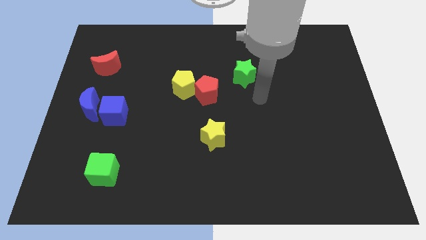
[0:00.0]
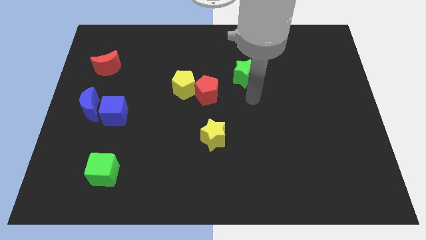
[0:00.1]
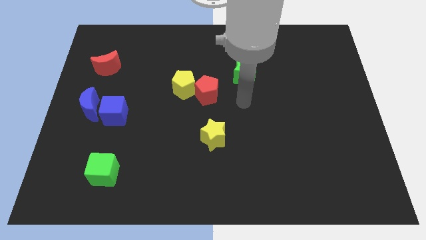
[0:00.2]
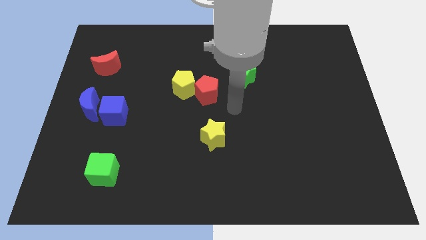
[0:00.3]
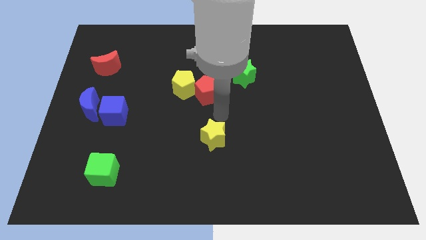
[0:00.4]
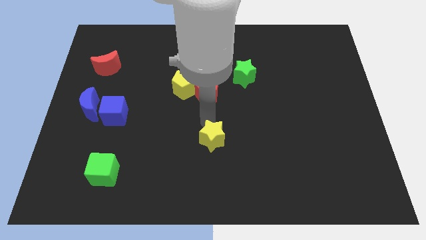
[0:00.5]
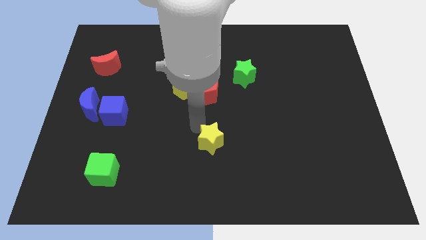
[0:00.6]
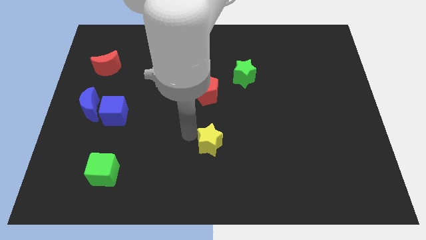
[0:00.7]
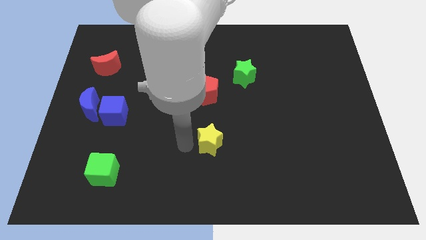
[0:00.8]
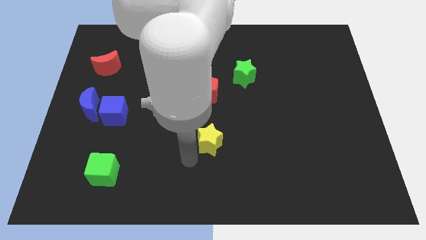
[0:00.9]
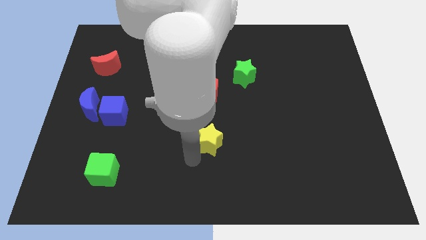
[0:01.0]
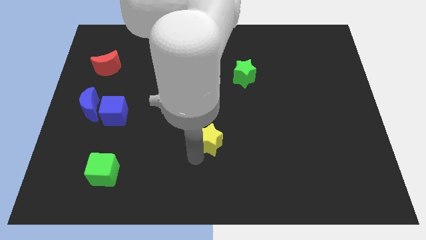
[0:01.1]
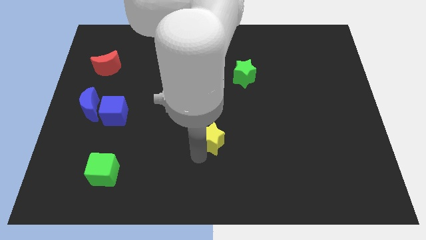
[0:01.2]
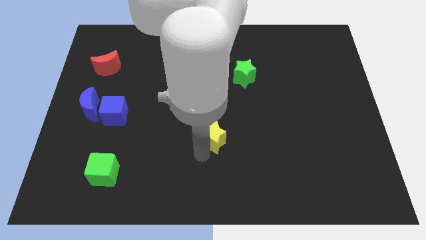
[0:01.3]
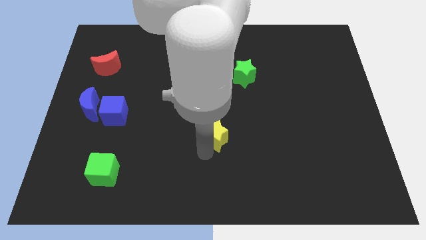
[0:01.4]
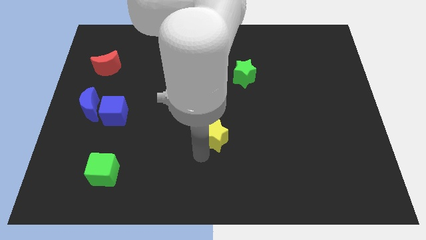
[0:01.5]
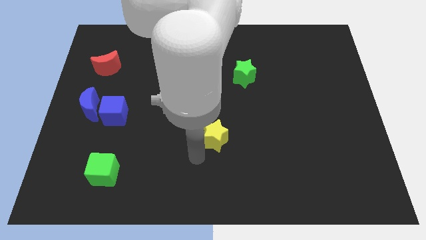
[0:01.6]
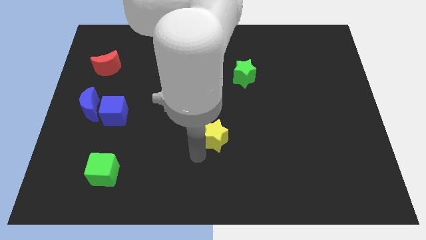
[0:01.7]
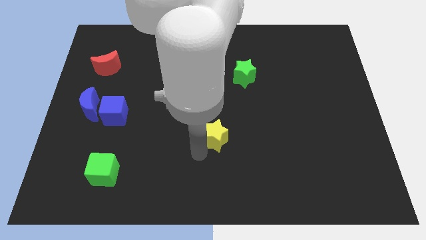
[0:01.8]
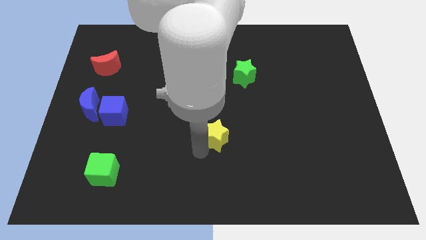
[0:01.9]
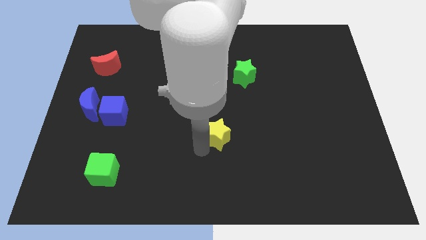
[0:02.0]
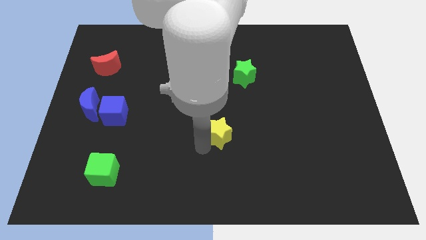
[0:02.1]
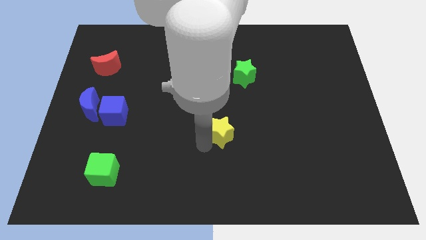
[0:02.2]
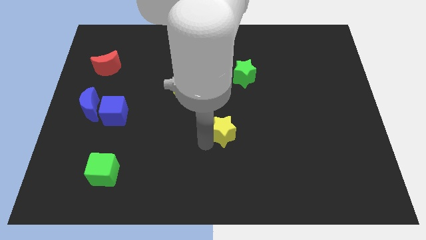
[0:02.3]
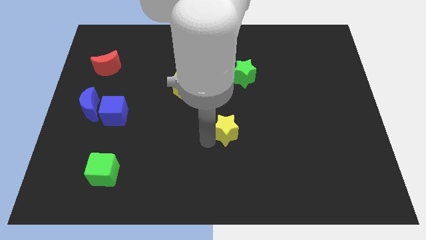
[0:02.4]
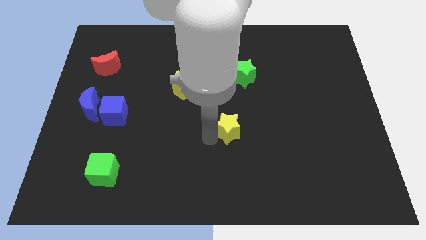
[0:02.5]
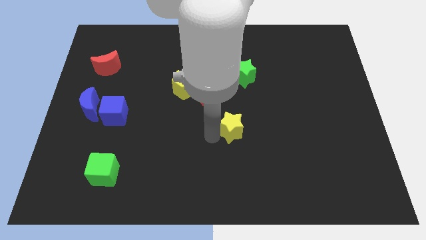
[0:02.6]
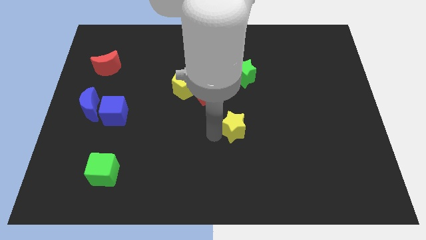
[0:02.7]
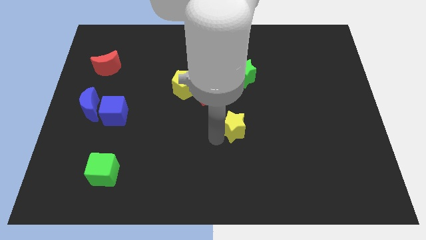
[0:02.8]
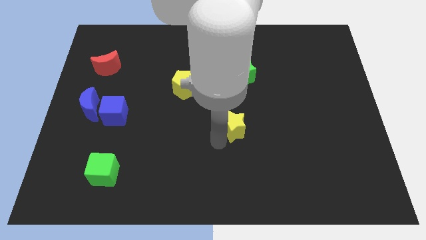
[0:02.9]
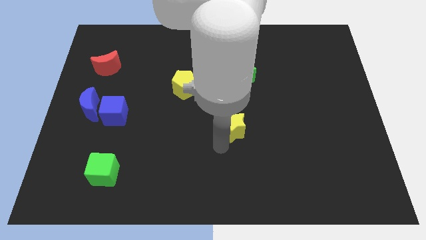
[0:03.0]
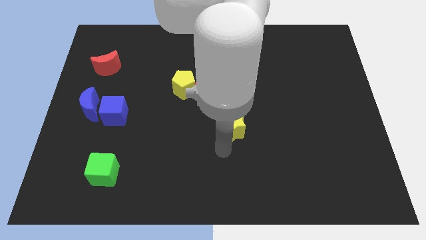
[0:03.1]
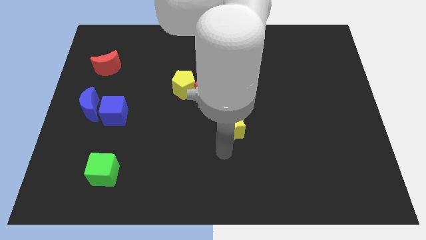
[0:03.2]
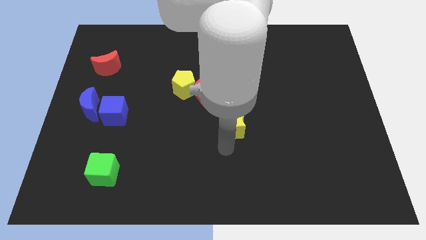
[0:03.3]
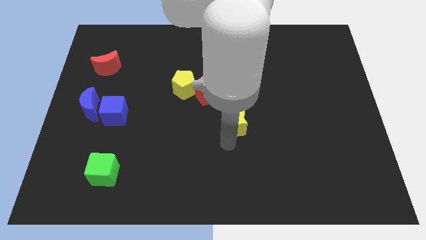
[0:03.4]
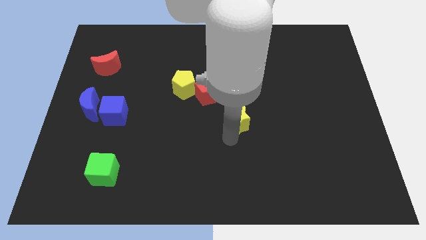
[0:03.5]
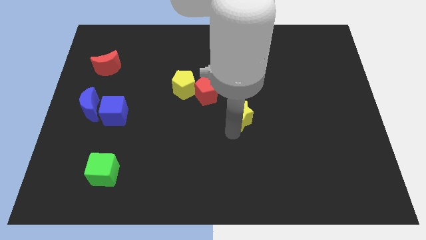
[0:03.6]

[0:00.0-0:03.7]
slightly push the yellow star upwards and then to the right

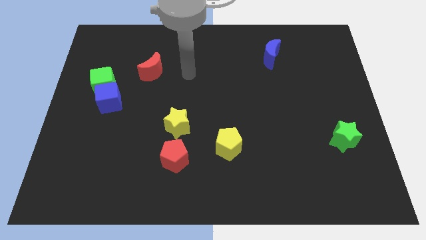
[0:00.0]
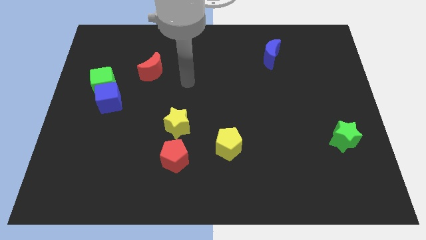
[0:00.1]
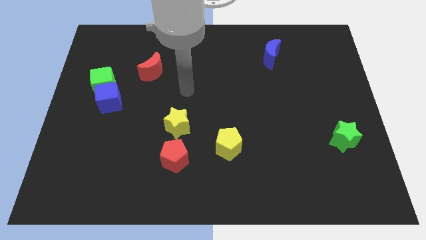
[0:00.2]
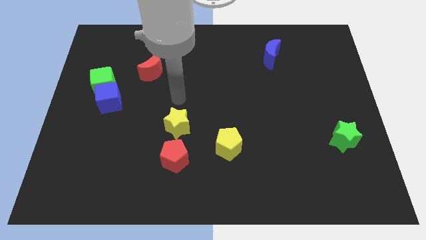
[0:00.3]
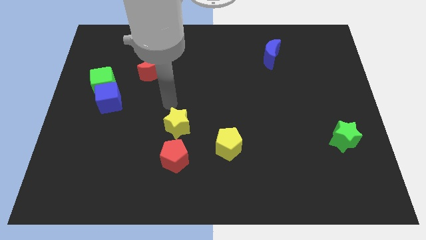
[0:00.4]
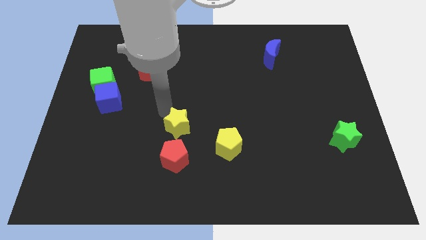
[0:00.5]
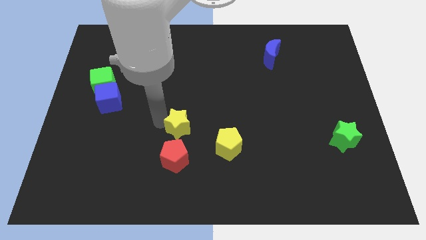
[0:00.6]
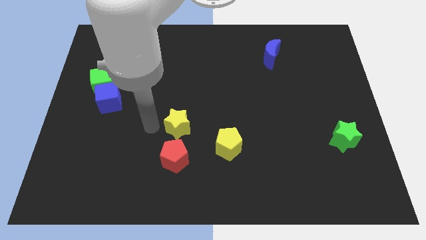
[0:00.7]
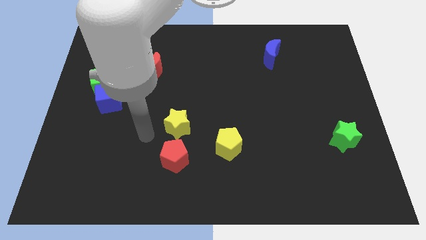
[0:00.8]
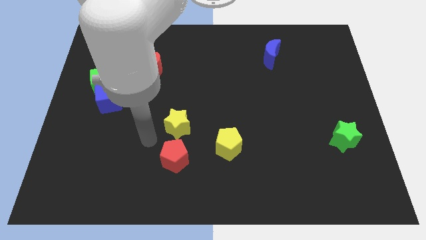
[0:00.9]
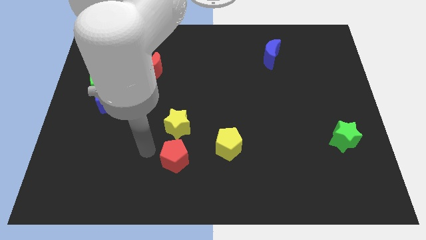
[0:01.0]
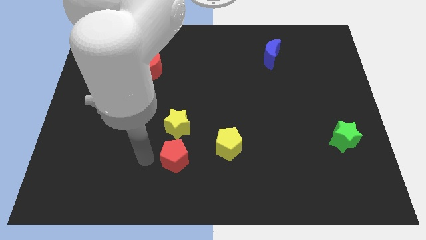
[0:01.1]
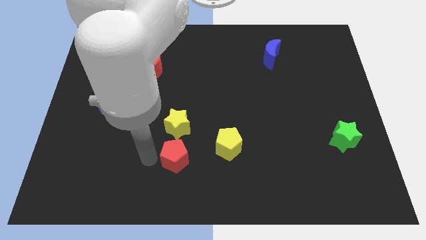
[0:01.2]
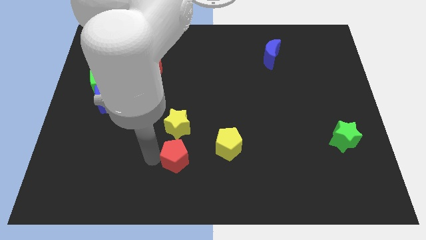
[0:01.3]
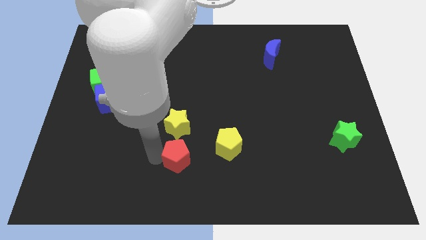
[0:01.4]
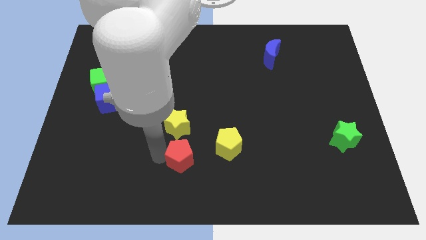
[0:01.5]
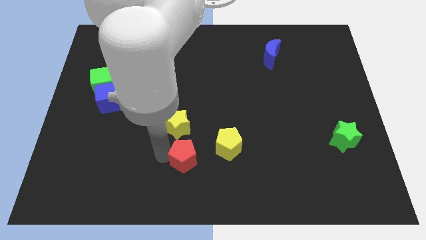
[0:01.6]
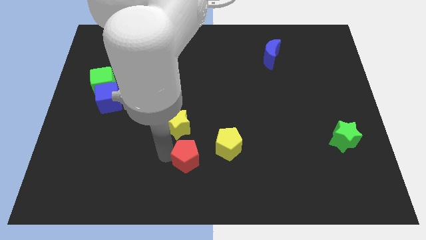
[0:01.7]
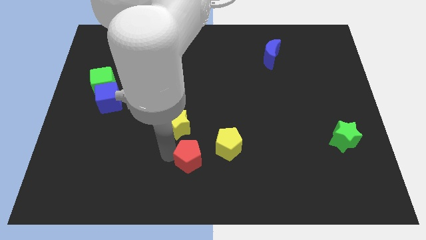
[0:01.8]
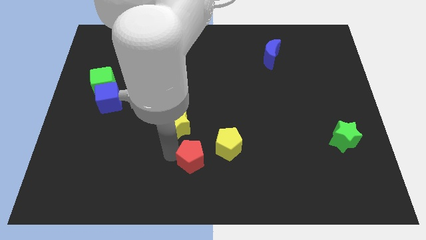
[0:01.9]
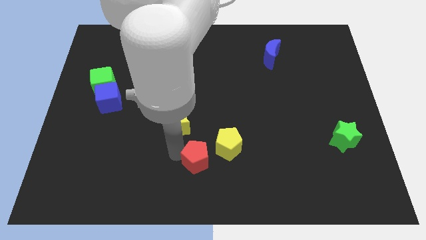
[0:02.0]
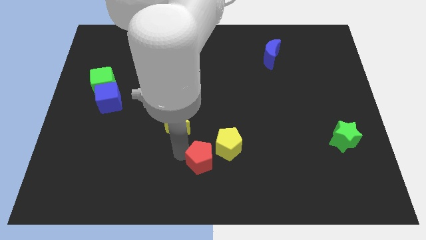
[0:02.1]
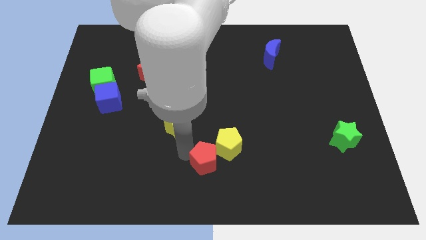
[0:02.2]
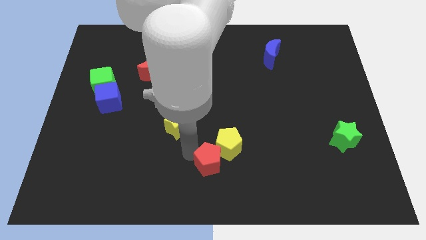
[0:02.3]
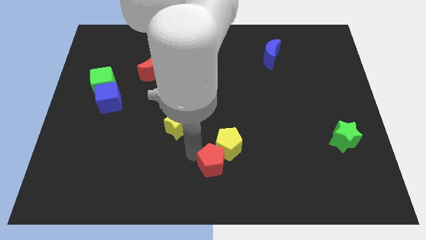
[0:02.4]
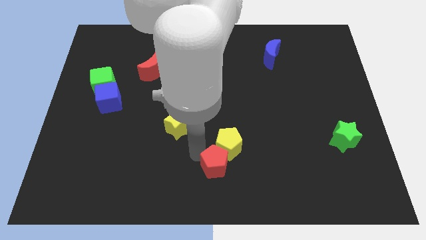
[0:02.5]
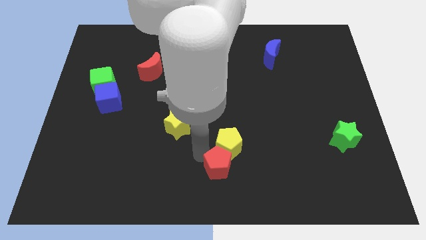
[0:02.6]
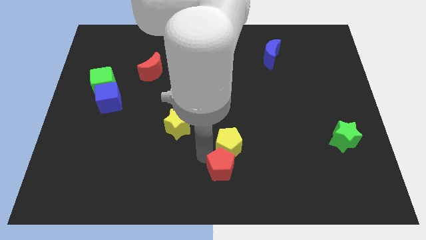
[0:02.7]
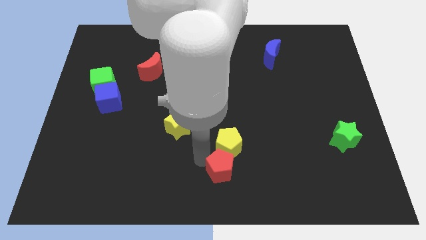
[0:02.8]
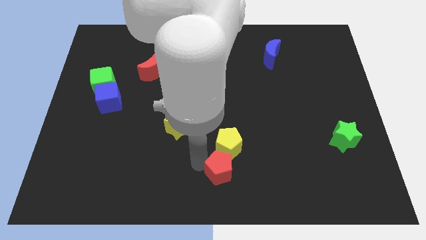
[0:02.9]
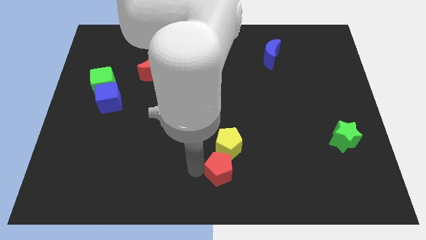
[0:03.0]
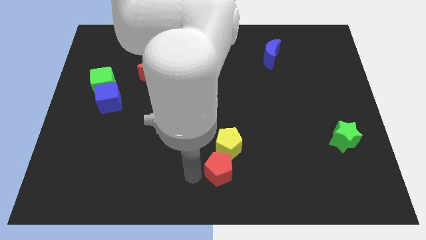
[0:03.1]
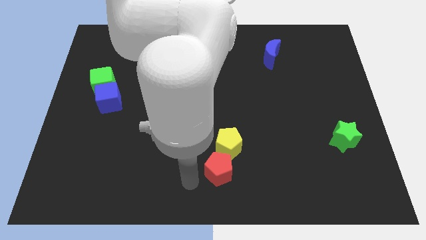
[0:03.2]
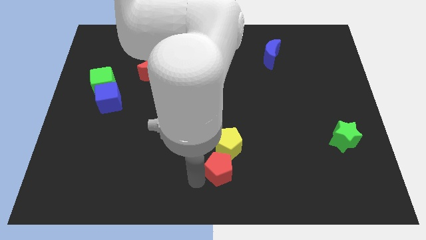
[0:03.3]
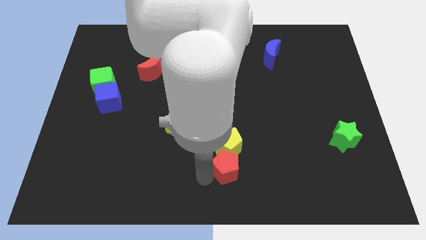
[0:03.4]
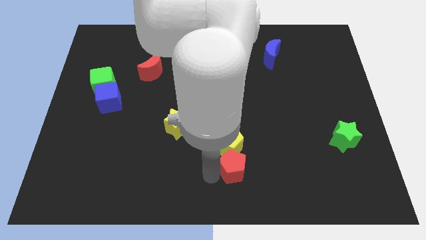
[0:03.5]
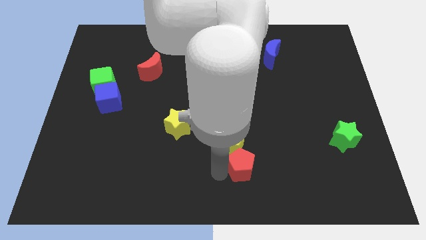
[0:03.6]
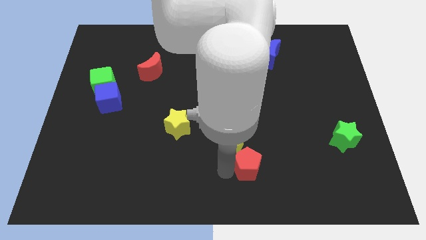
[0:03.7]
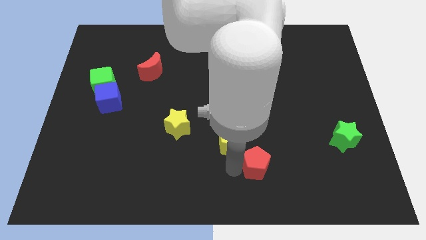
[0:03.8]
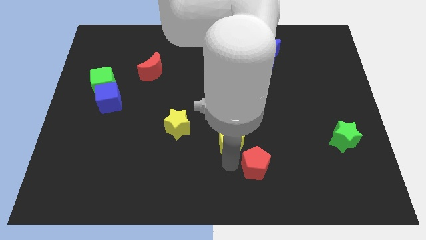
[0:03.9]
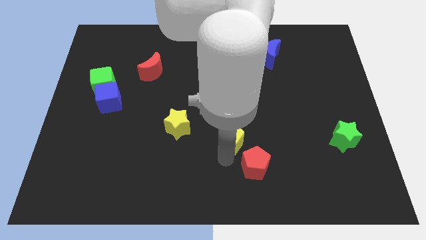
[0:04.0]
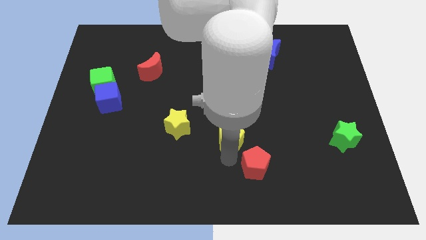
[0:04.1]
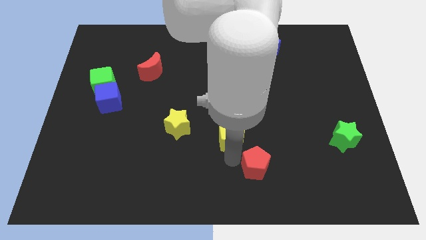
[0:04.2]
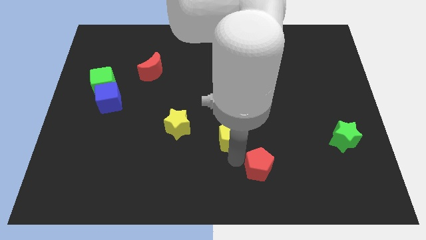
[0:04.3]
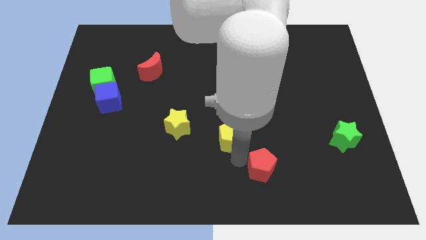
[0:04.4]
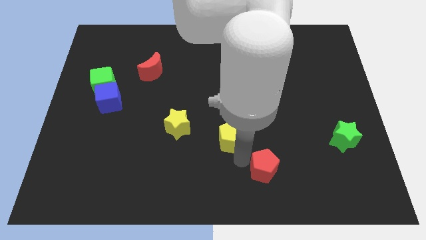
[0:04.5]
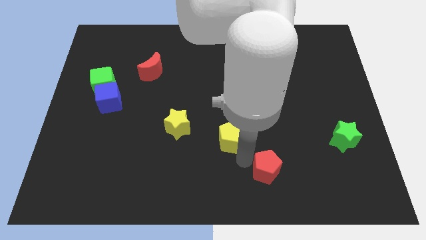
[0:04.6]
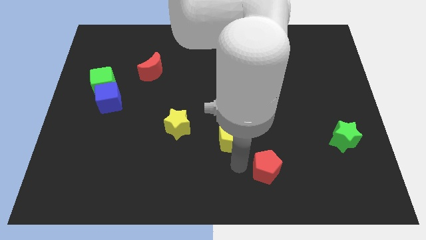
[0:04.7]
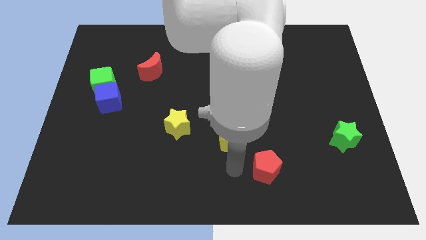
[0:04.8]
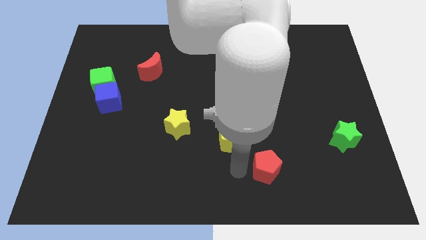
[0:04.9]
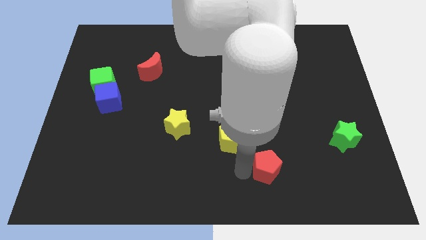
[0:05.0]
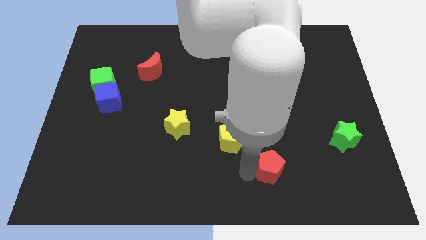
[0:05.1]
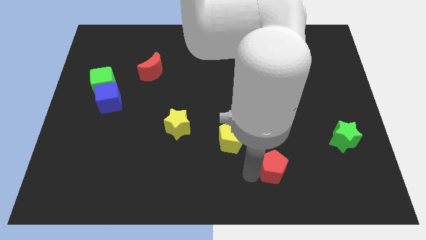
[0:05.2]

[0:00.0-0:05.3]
slide the red pentagon to the right
